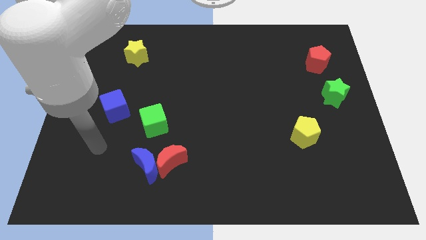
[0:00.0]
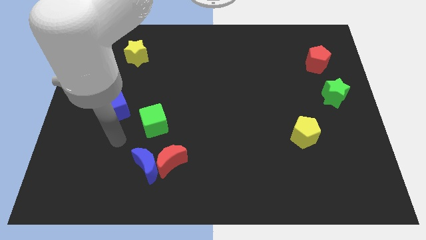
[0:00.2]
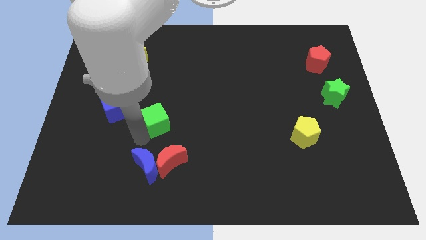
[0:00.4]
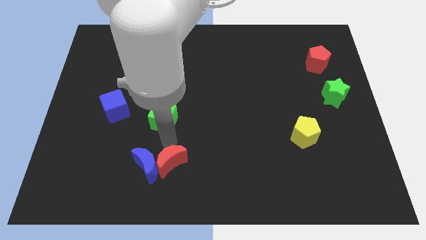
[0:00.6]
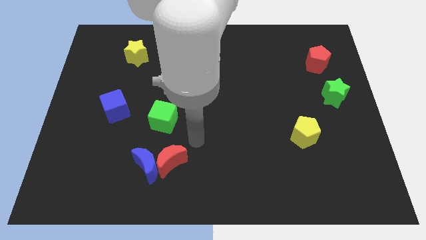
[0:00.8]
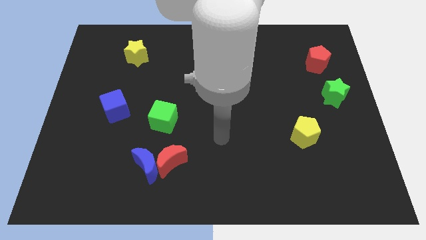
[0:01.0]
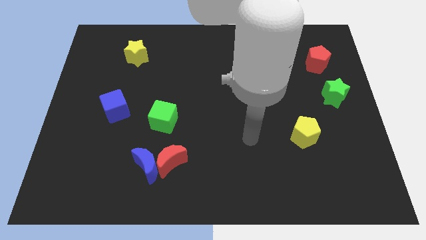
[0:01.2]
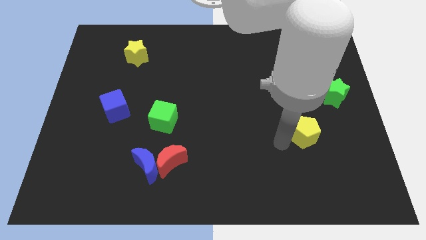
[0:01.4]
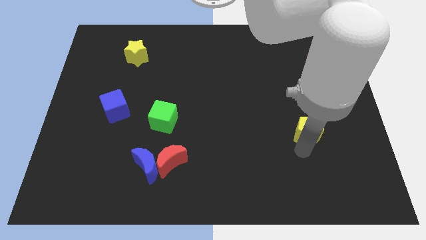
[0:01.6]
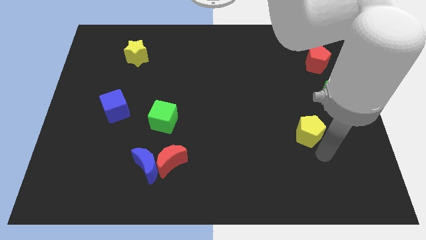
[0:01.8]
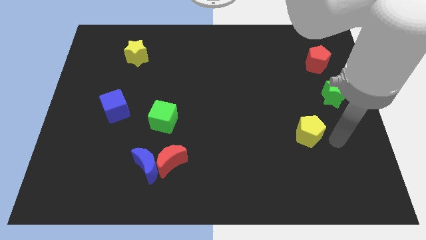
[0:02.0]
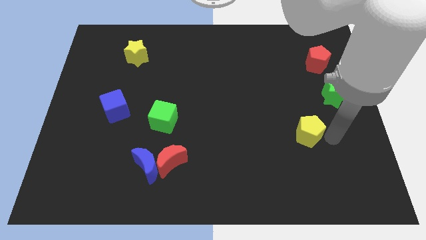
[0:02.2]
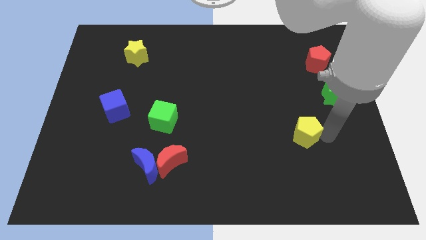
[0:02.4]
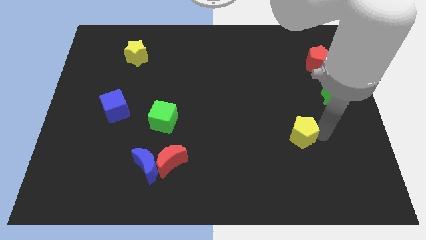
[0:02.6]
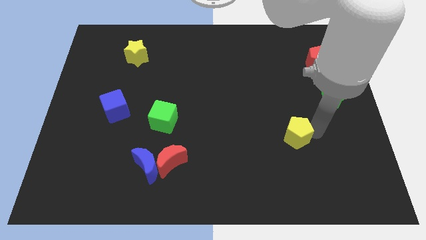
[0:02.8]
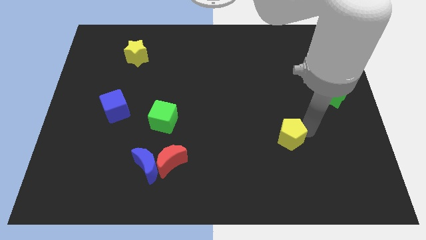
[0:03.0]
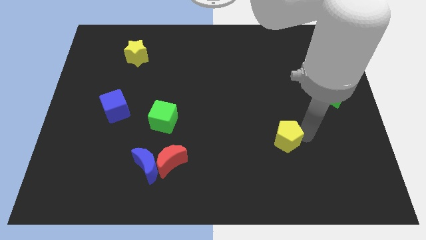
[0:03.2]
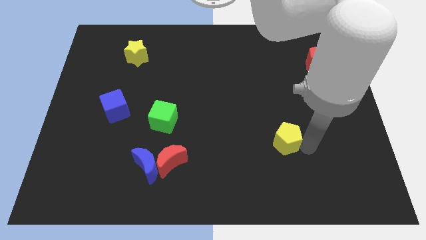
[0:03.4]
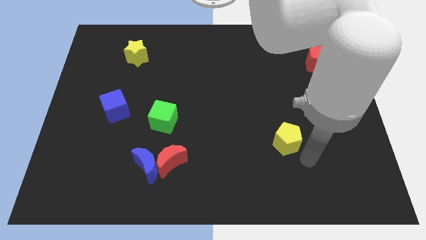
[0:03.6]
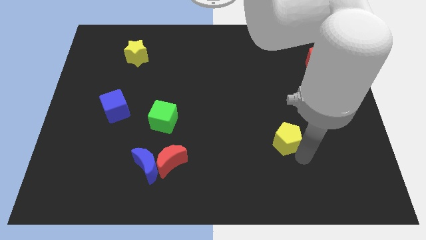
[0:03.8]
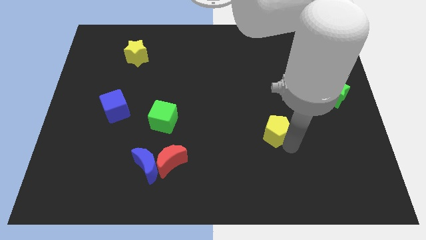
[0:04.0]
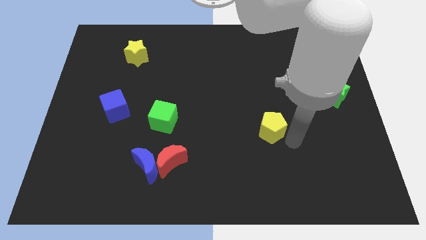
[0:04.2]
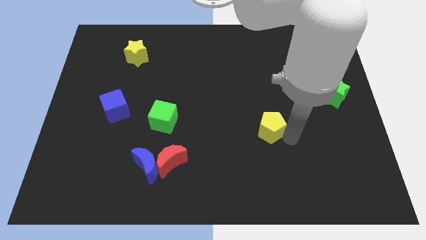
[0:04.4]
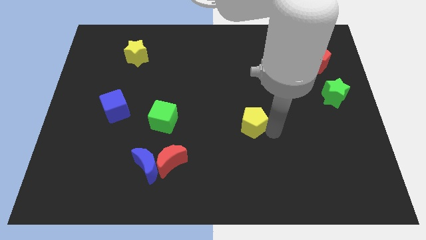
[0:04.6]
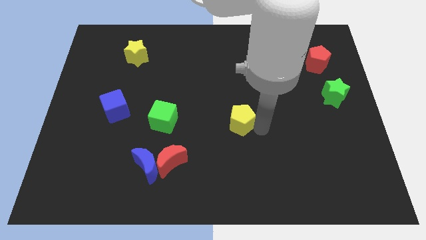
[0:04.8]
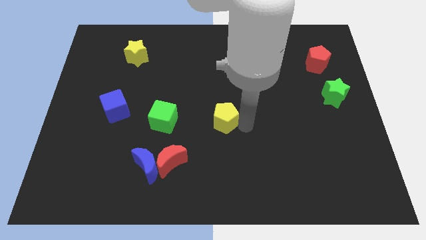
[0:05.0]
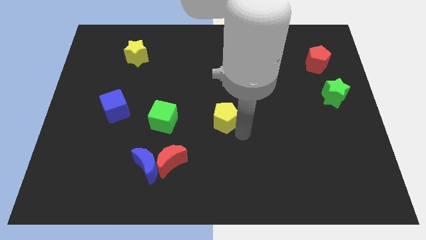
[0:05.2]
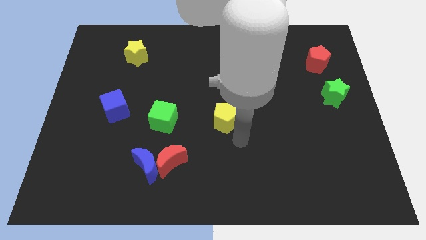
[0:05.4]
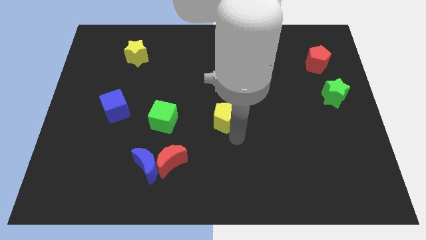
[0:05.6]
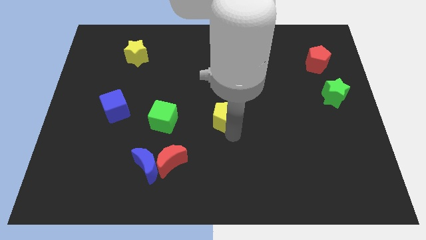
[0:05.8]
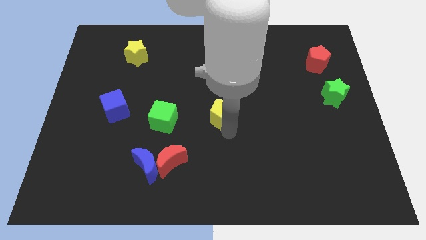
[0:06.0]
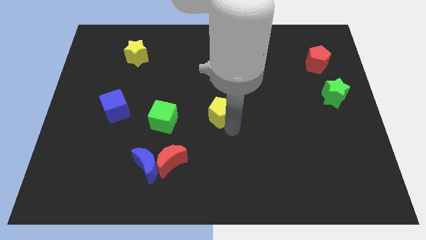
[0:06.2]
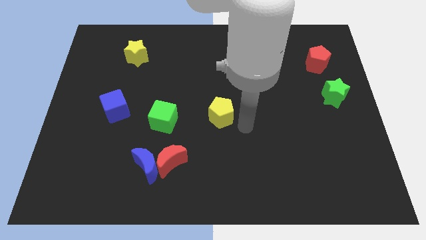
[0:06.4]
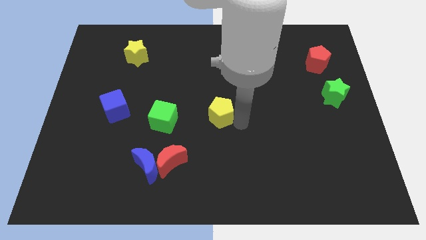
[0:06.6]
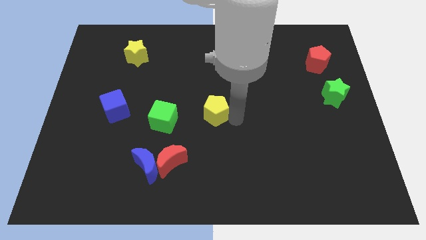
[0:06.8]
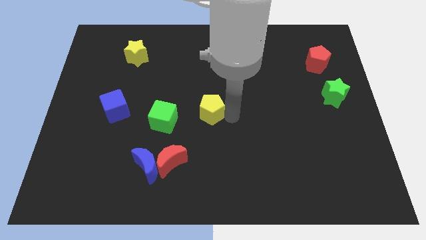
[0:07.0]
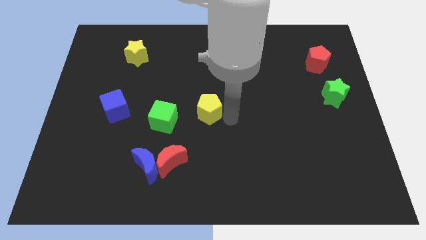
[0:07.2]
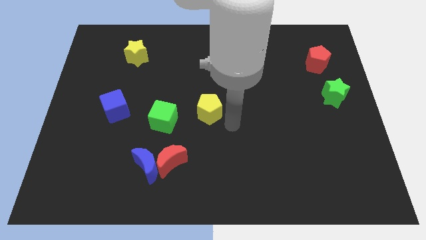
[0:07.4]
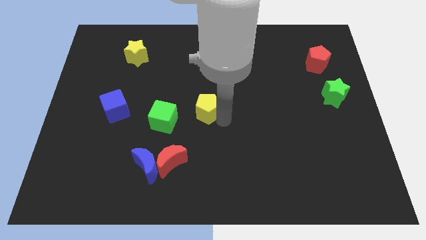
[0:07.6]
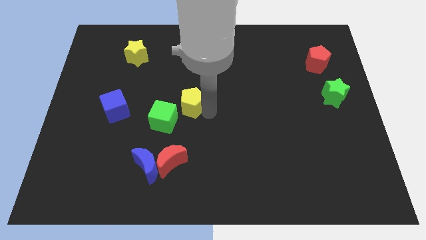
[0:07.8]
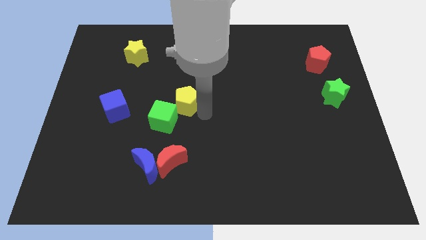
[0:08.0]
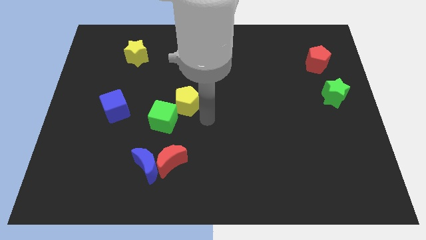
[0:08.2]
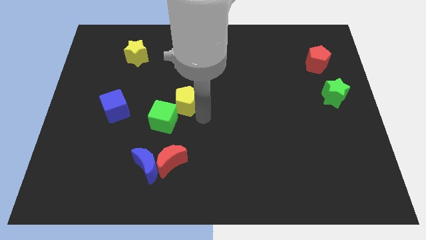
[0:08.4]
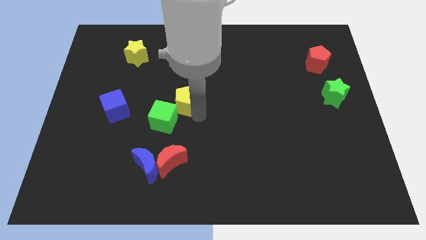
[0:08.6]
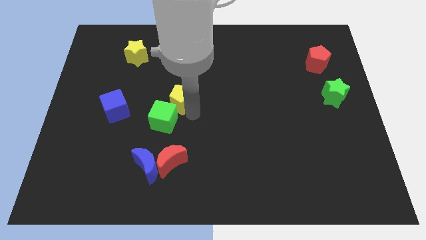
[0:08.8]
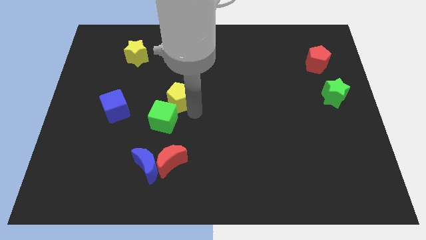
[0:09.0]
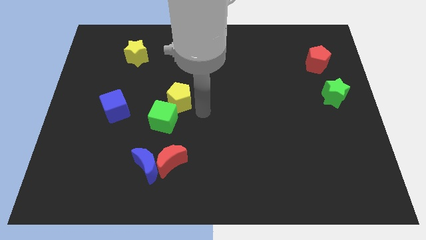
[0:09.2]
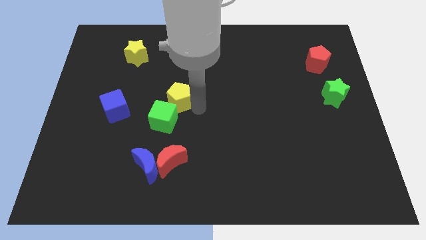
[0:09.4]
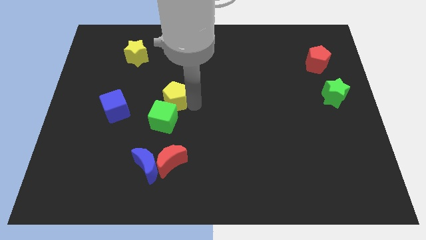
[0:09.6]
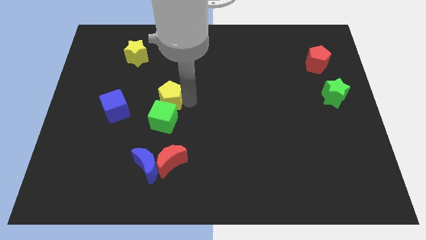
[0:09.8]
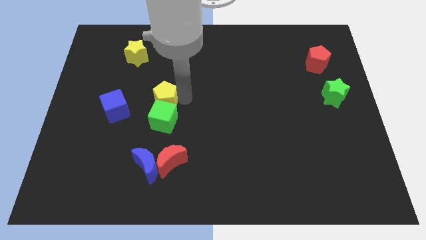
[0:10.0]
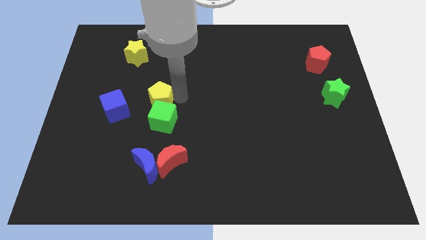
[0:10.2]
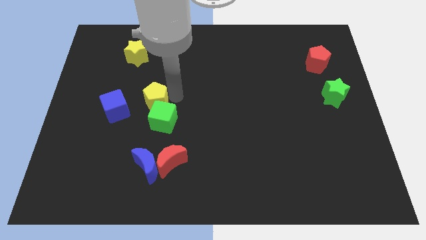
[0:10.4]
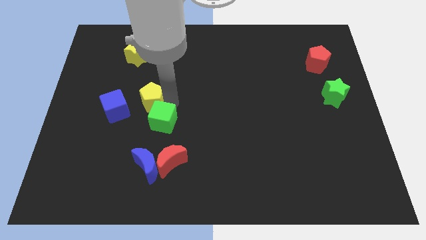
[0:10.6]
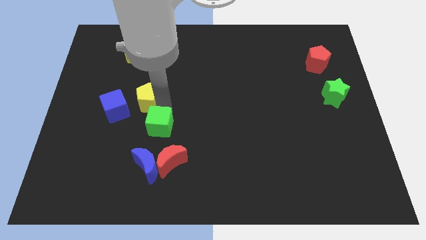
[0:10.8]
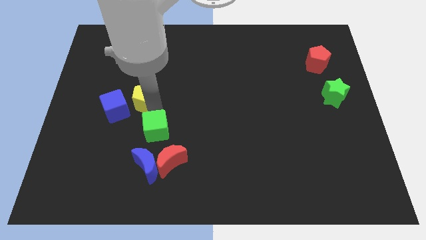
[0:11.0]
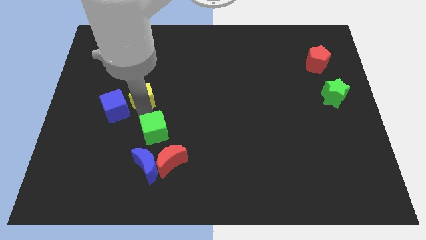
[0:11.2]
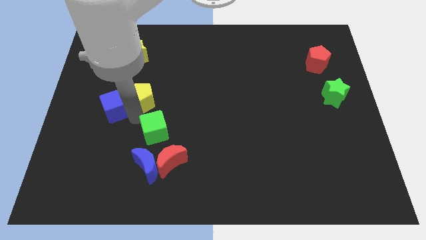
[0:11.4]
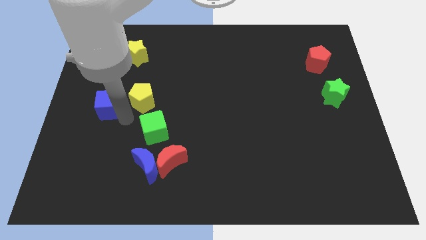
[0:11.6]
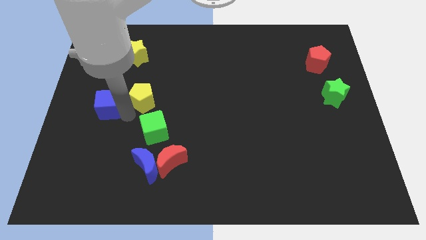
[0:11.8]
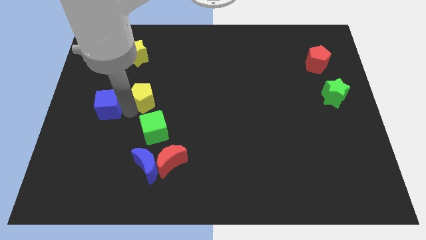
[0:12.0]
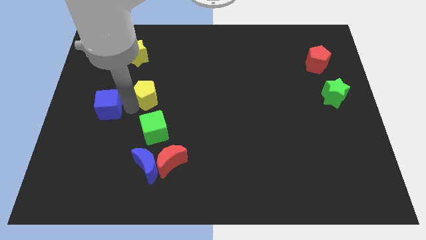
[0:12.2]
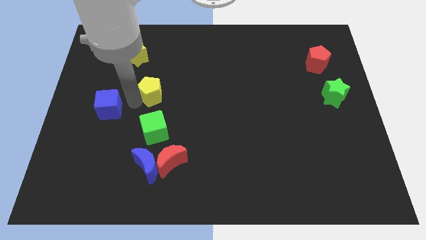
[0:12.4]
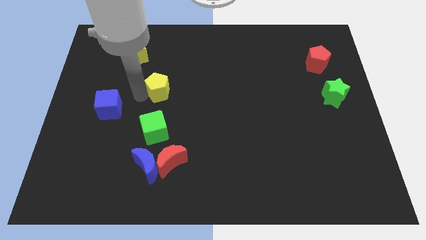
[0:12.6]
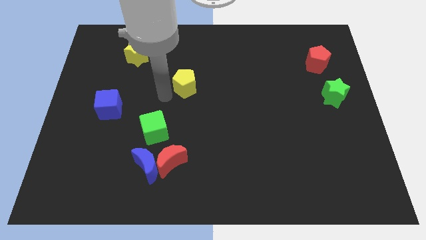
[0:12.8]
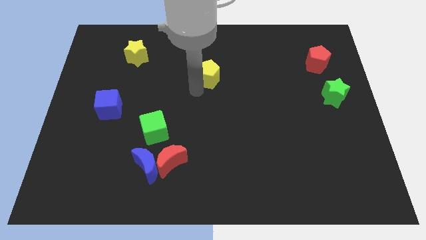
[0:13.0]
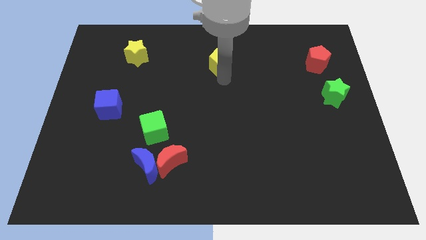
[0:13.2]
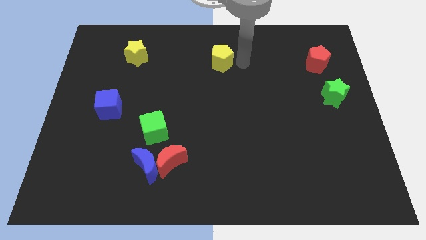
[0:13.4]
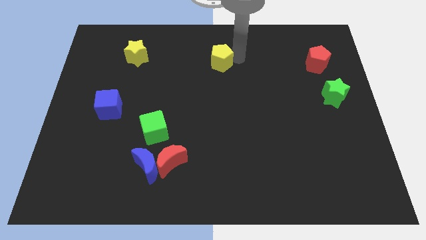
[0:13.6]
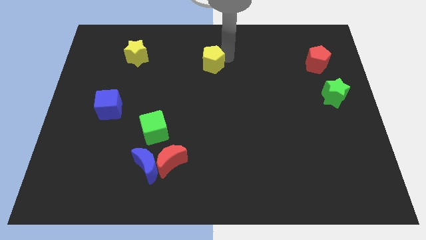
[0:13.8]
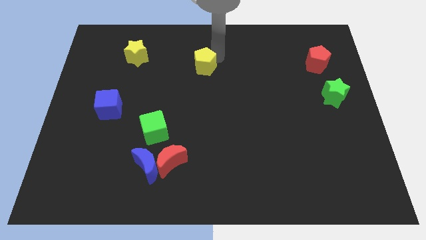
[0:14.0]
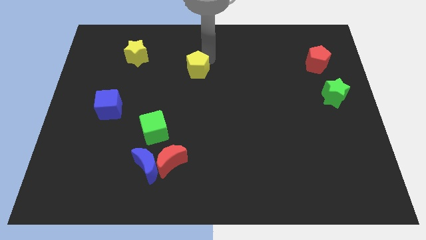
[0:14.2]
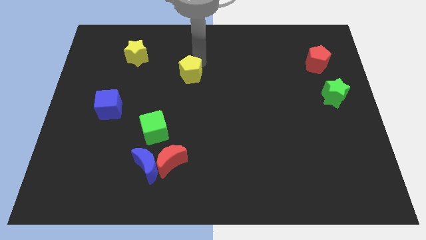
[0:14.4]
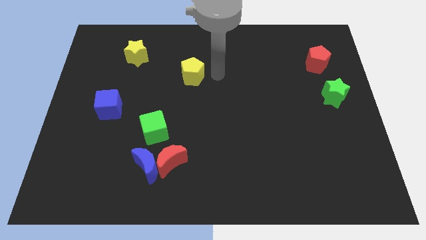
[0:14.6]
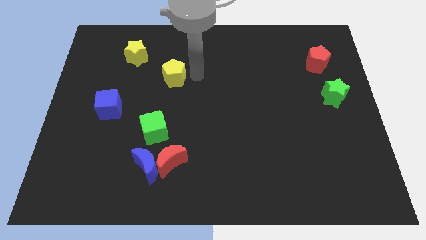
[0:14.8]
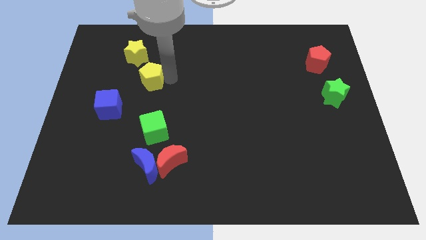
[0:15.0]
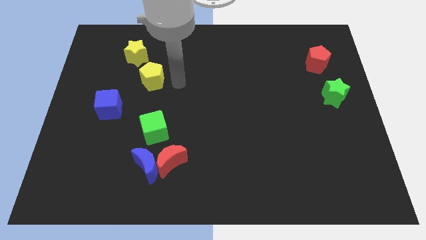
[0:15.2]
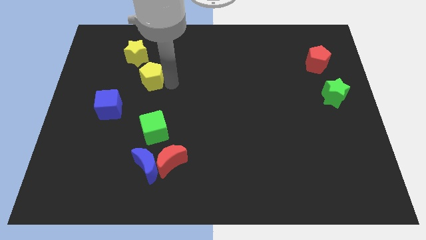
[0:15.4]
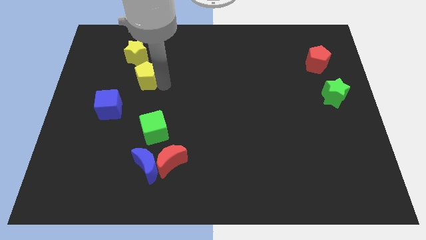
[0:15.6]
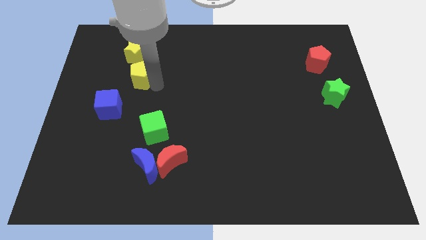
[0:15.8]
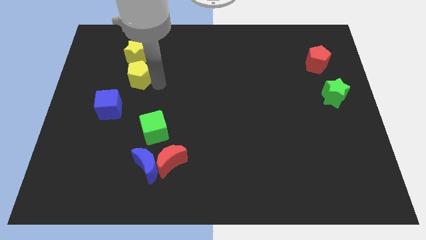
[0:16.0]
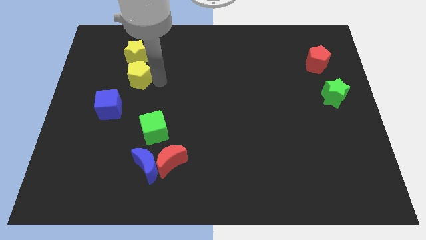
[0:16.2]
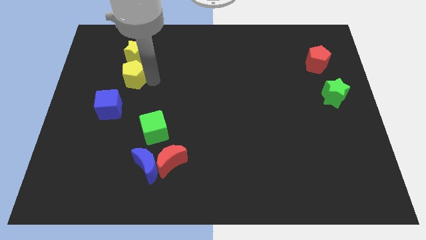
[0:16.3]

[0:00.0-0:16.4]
push the yellow pentagon to the top side of the blue cube
